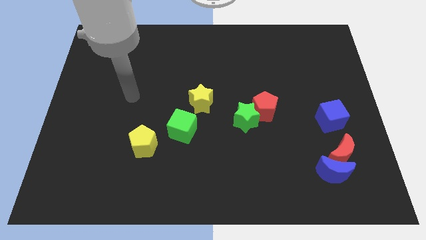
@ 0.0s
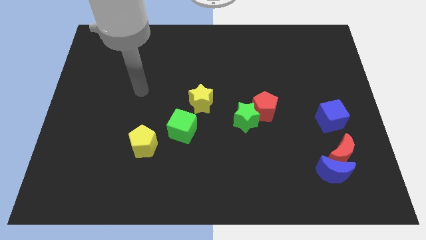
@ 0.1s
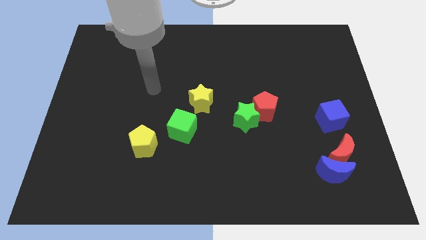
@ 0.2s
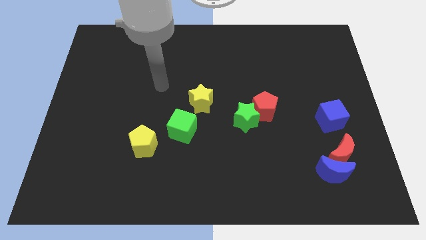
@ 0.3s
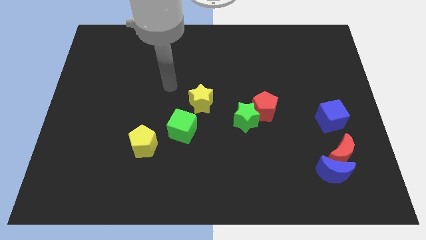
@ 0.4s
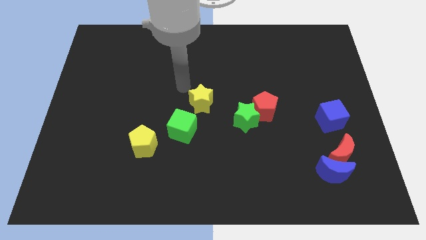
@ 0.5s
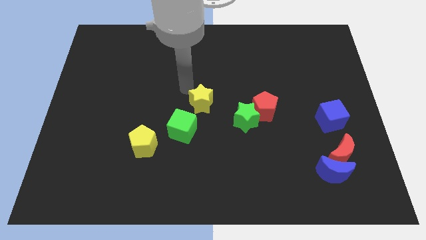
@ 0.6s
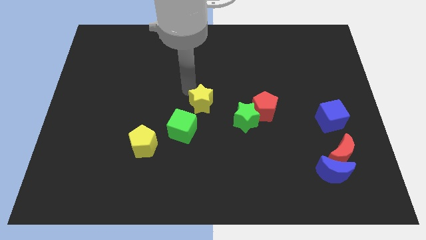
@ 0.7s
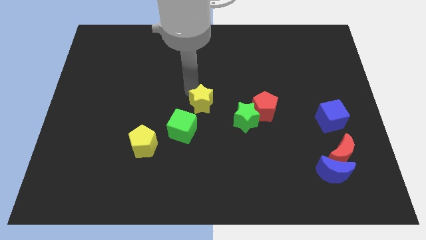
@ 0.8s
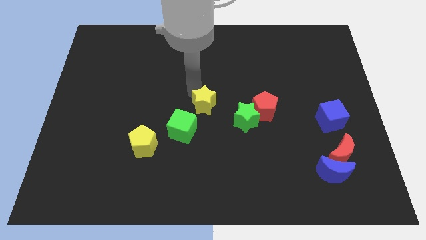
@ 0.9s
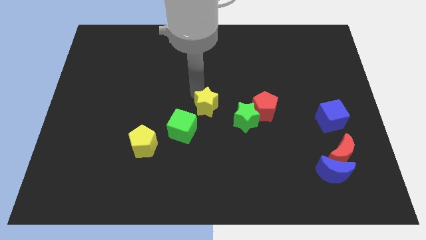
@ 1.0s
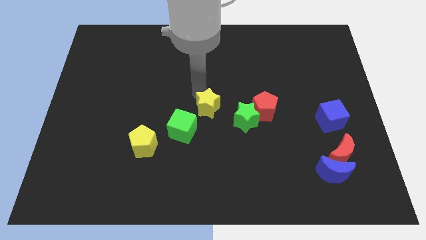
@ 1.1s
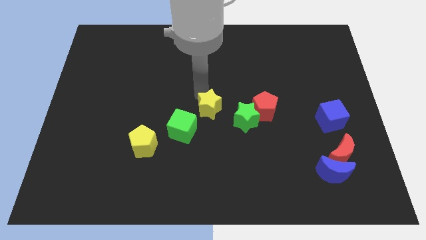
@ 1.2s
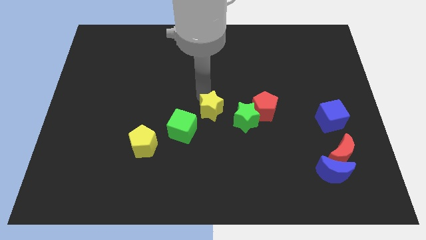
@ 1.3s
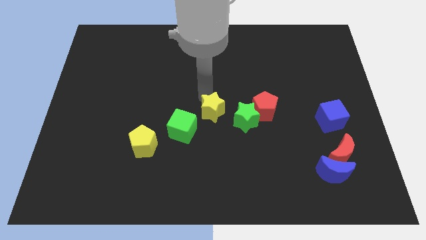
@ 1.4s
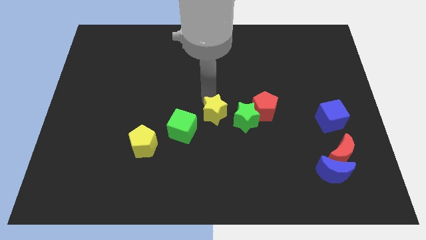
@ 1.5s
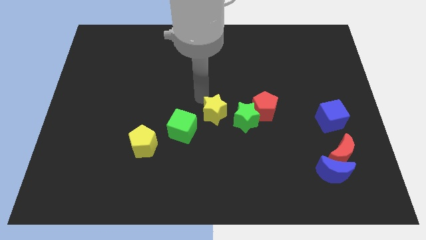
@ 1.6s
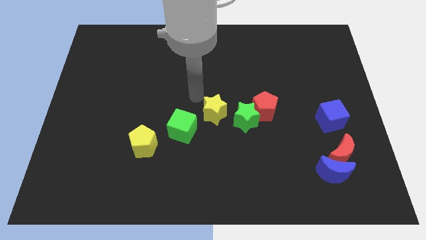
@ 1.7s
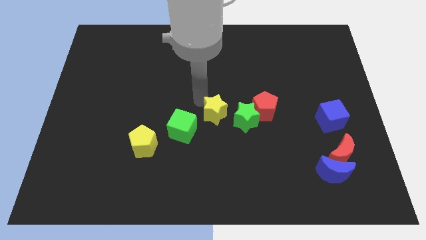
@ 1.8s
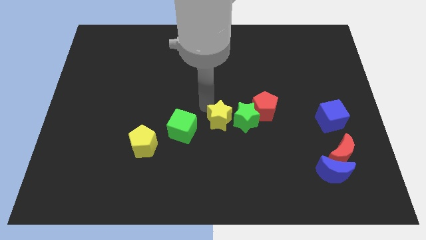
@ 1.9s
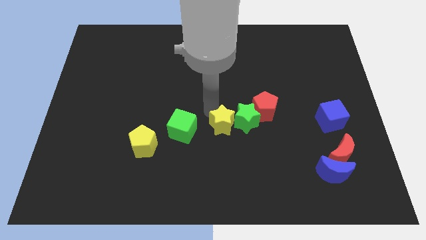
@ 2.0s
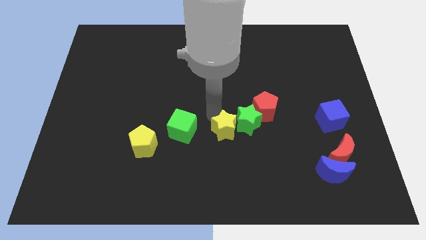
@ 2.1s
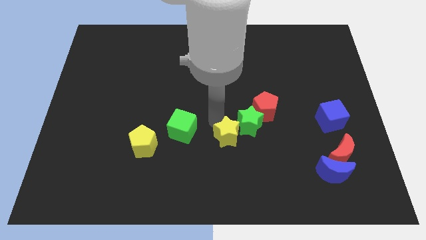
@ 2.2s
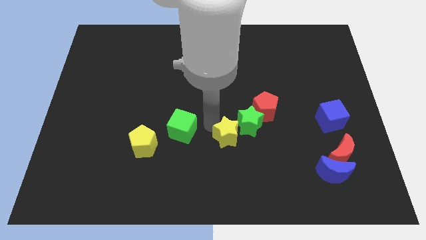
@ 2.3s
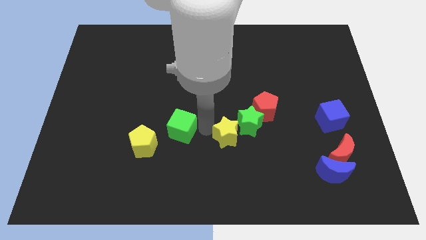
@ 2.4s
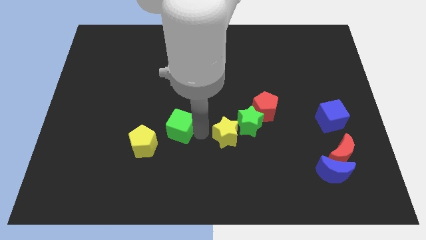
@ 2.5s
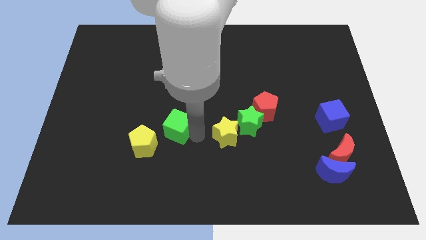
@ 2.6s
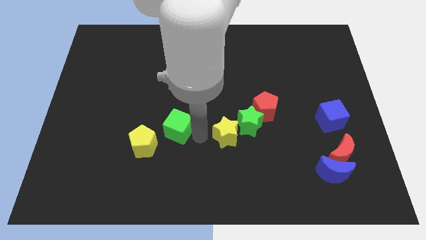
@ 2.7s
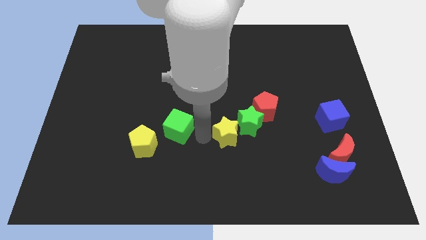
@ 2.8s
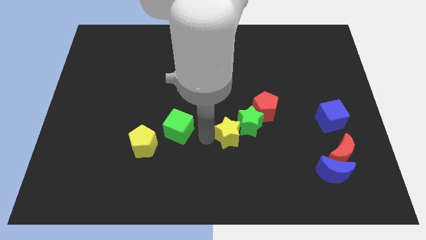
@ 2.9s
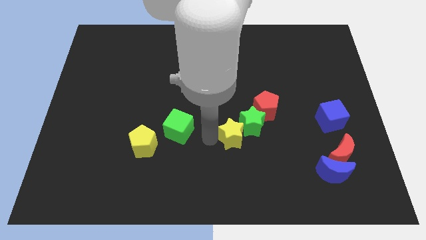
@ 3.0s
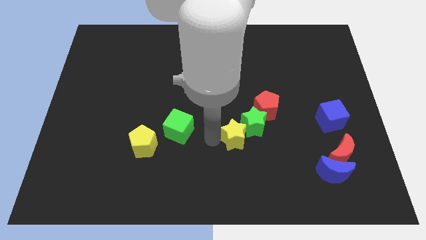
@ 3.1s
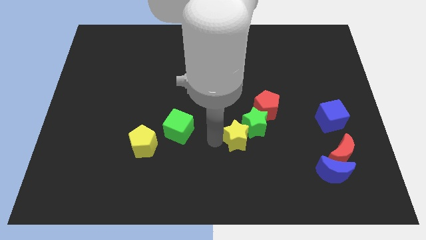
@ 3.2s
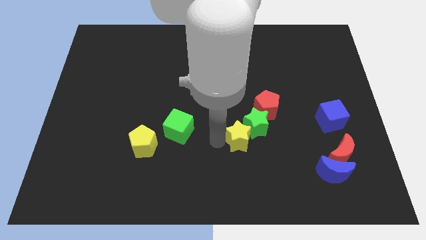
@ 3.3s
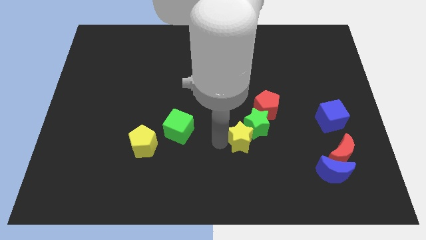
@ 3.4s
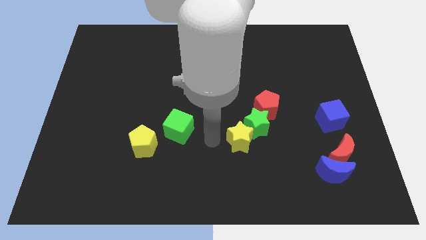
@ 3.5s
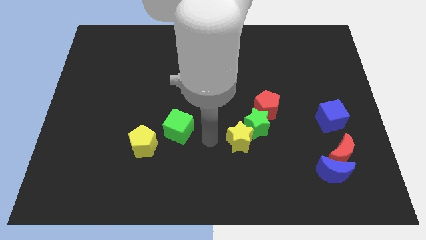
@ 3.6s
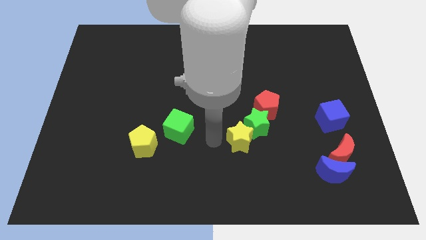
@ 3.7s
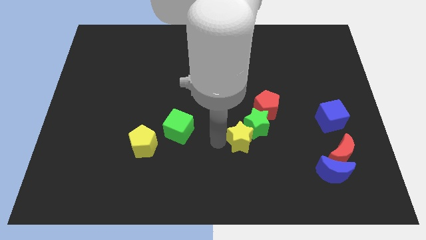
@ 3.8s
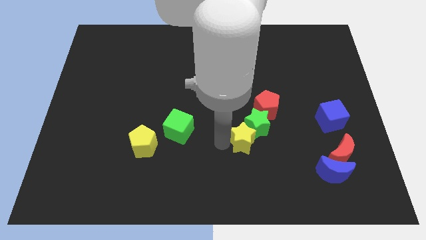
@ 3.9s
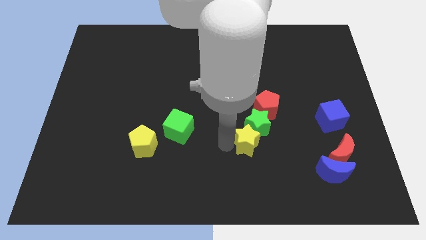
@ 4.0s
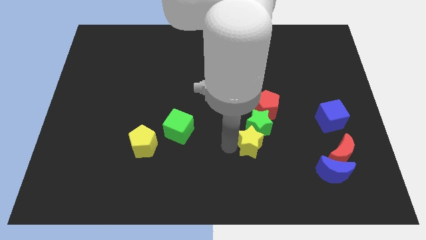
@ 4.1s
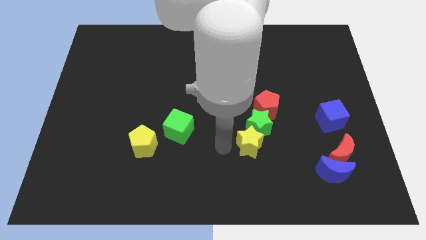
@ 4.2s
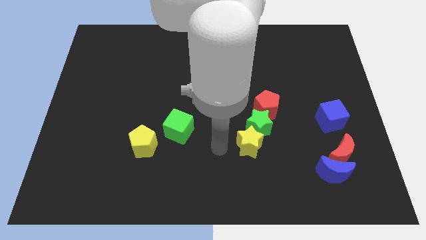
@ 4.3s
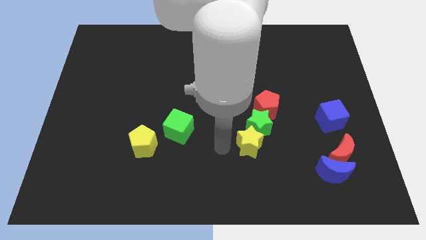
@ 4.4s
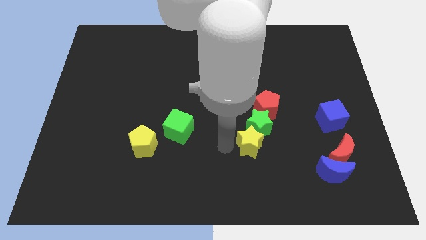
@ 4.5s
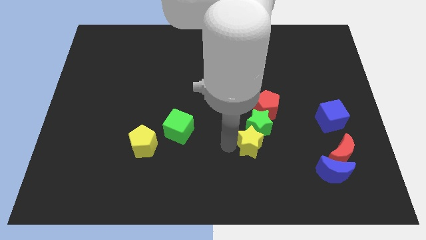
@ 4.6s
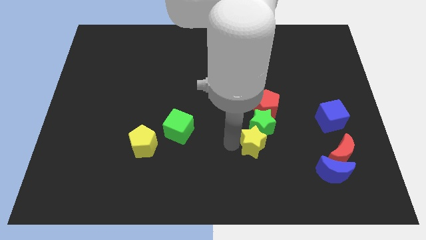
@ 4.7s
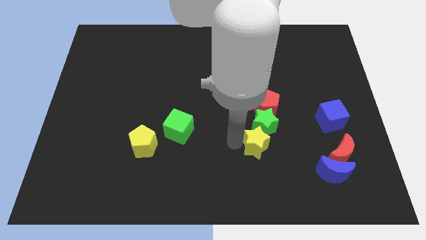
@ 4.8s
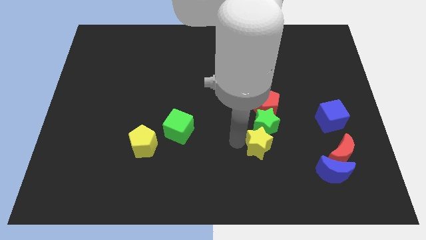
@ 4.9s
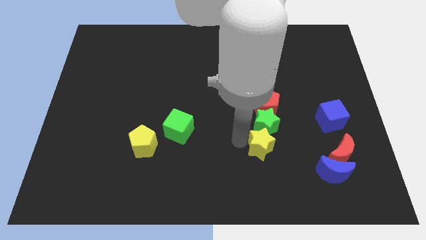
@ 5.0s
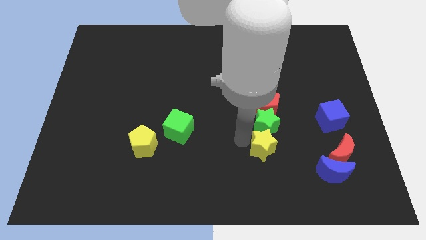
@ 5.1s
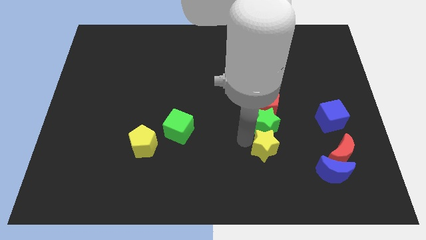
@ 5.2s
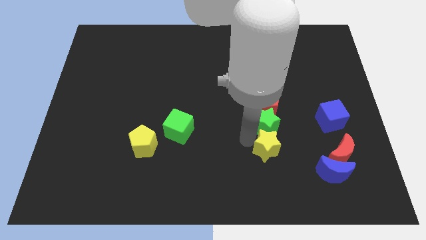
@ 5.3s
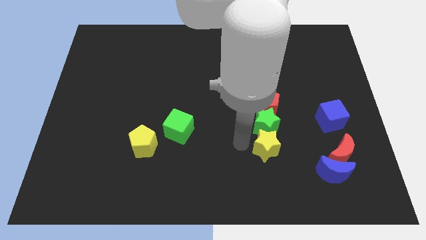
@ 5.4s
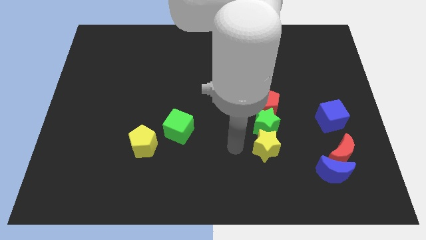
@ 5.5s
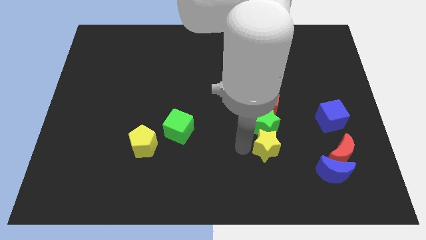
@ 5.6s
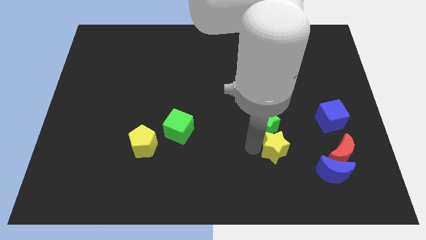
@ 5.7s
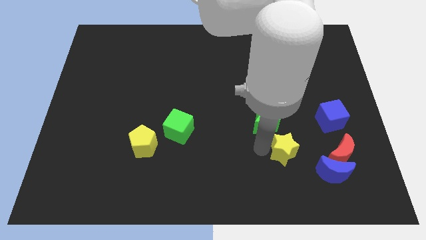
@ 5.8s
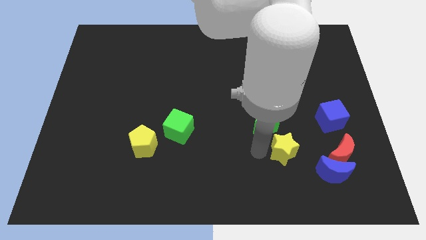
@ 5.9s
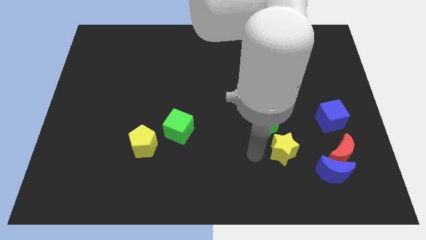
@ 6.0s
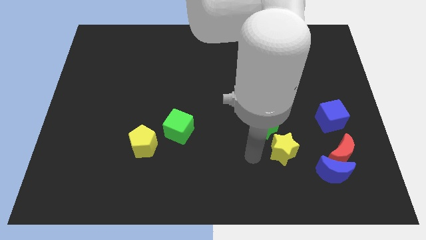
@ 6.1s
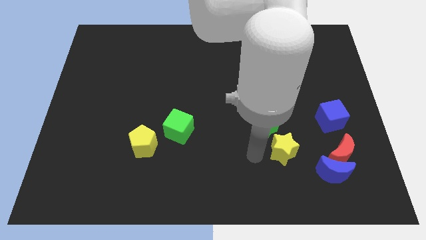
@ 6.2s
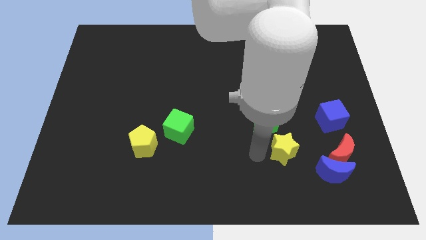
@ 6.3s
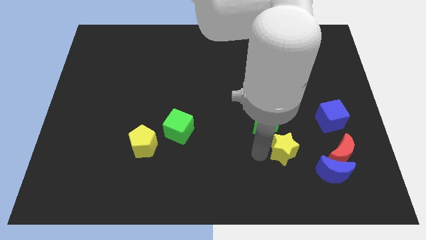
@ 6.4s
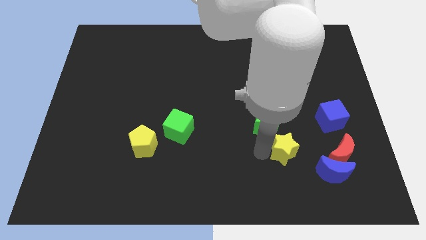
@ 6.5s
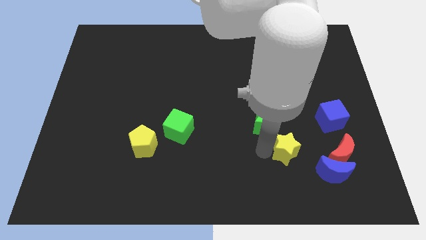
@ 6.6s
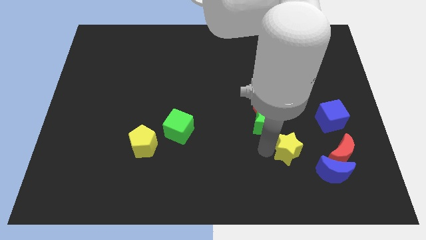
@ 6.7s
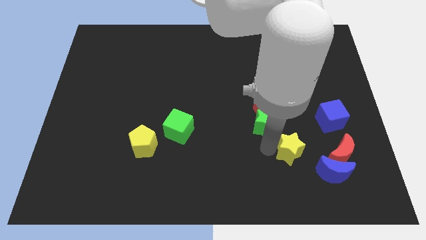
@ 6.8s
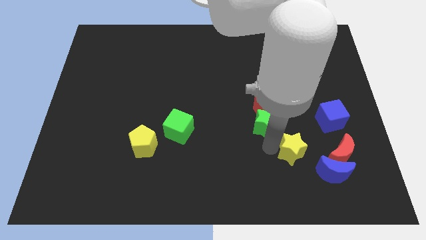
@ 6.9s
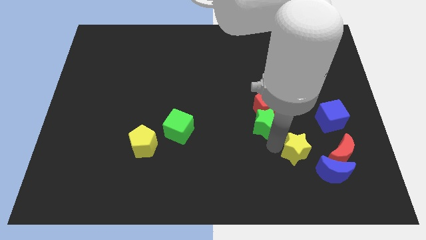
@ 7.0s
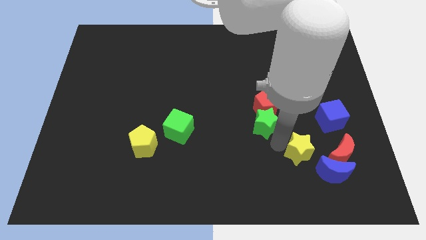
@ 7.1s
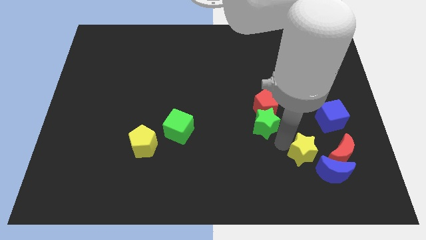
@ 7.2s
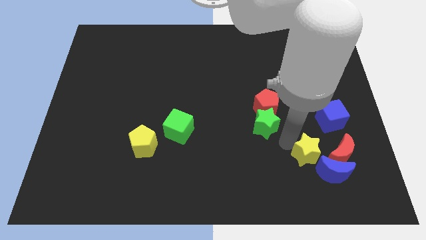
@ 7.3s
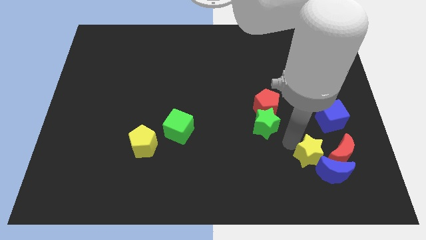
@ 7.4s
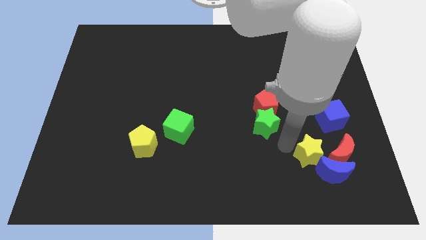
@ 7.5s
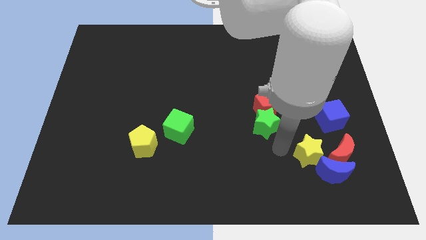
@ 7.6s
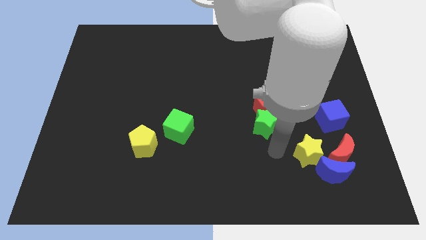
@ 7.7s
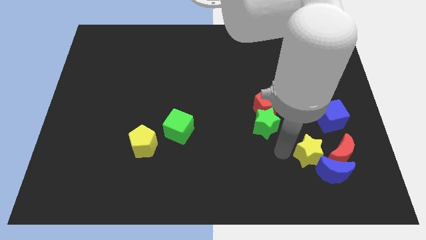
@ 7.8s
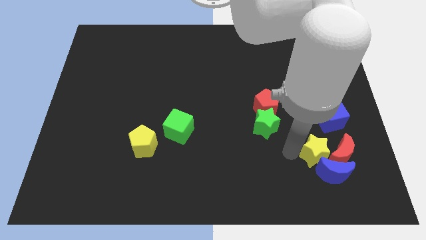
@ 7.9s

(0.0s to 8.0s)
put the yellow star close to the red moon
